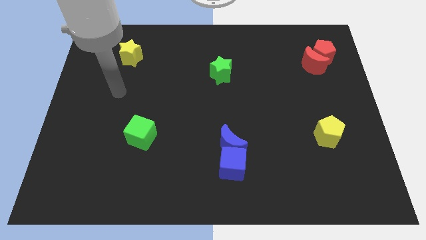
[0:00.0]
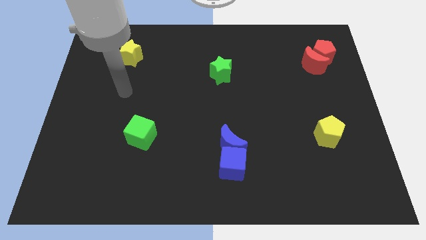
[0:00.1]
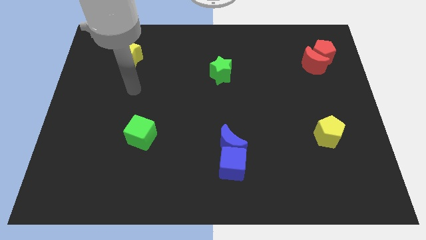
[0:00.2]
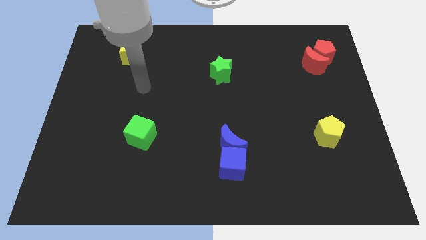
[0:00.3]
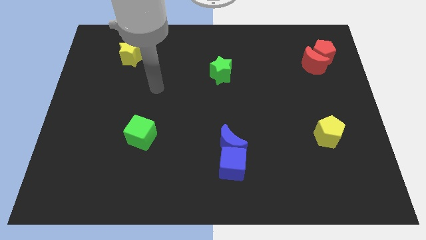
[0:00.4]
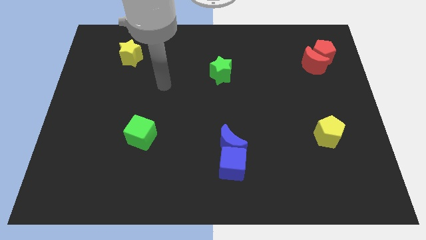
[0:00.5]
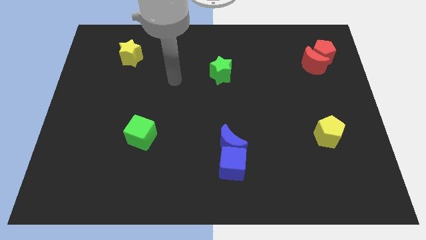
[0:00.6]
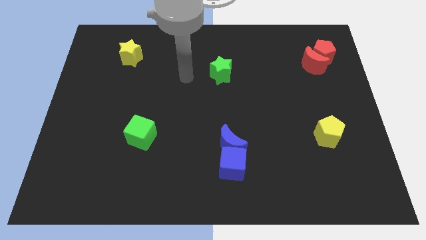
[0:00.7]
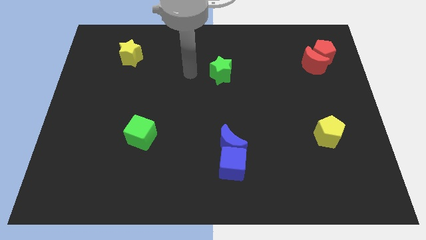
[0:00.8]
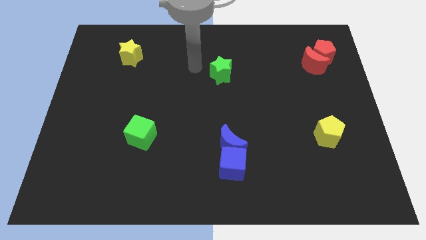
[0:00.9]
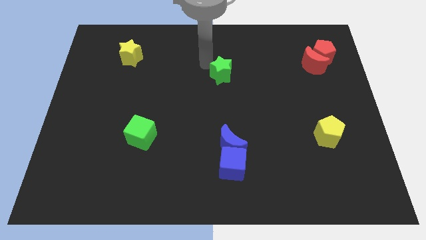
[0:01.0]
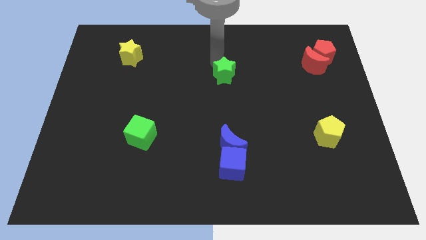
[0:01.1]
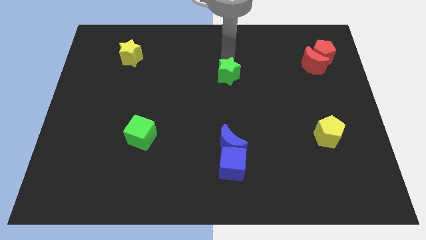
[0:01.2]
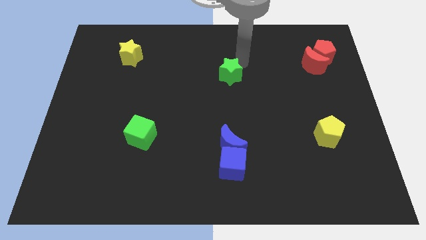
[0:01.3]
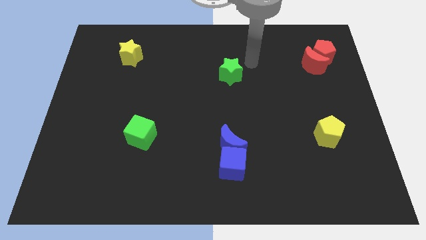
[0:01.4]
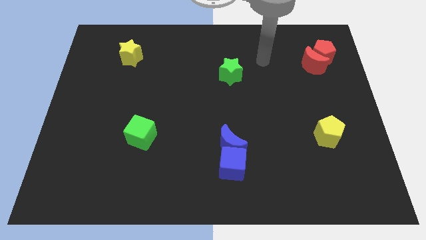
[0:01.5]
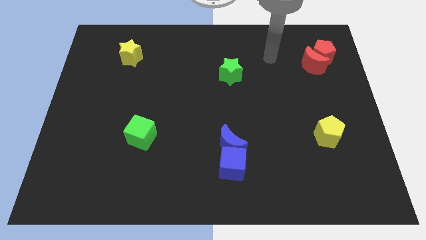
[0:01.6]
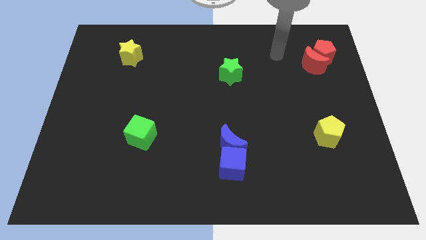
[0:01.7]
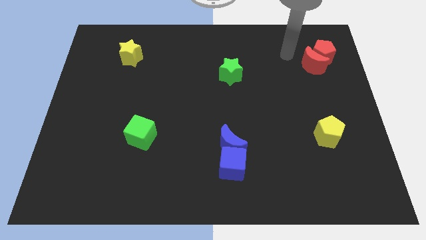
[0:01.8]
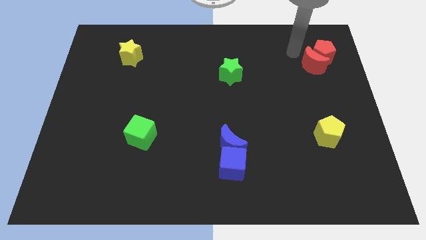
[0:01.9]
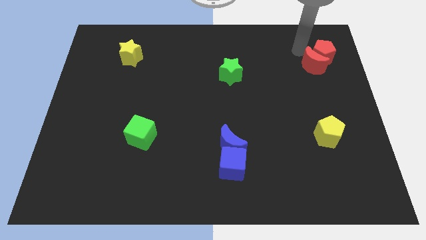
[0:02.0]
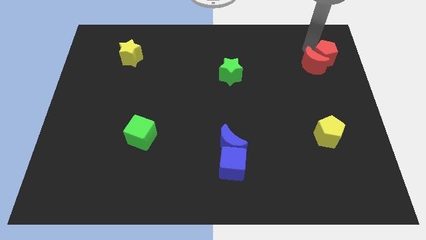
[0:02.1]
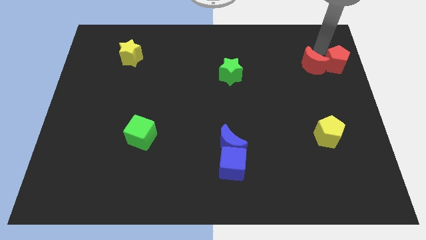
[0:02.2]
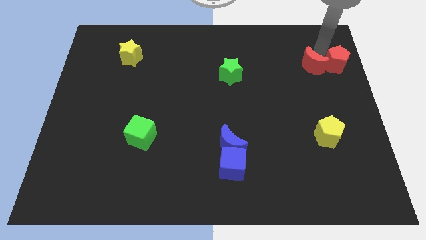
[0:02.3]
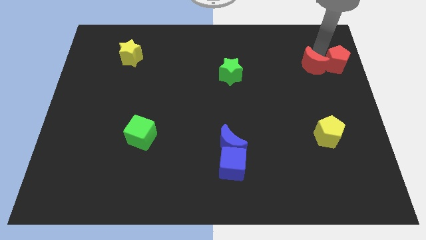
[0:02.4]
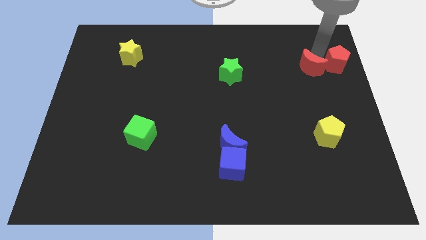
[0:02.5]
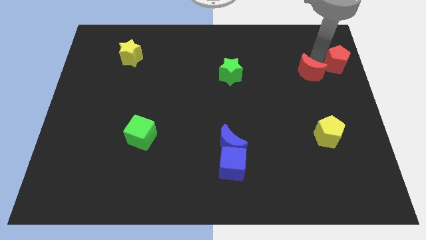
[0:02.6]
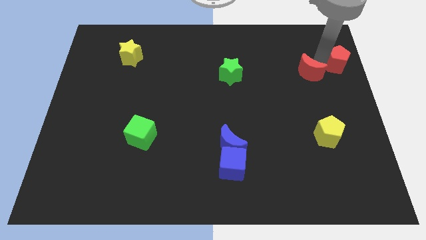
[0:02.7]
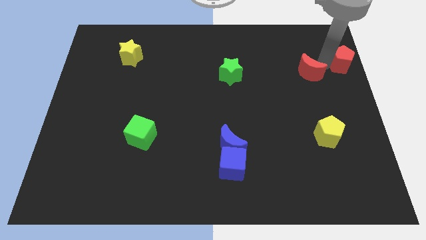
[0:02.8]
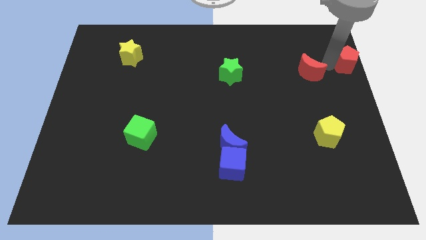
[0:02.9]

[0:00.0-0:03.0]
separate the red moon from the red pentagon

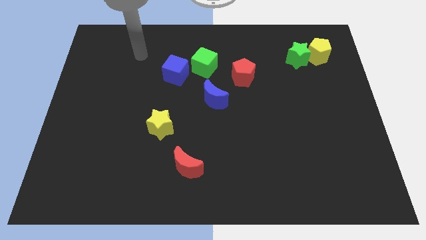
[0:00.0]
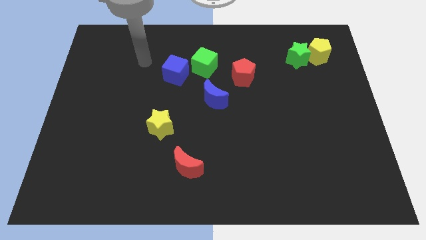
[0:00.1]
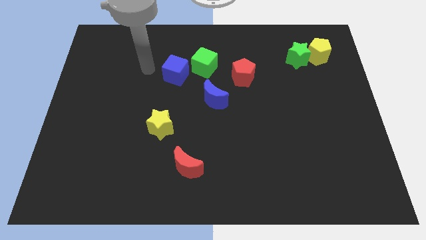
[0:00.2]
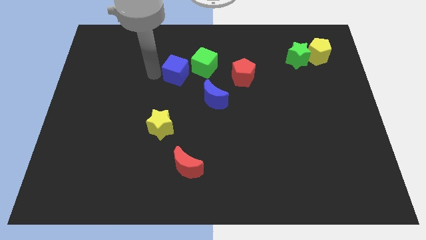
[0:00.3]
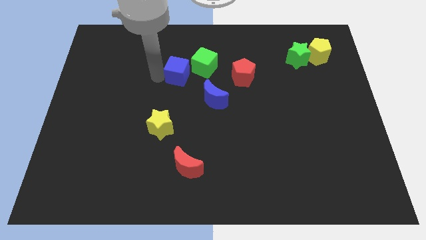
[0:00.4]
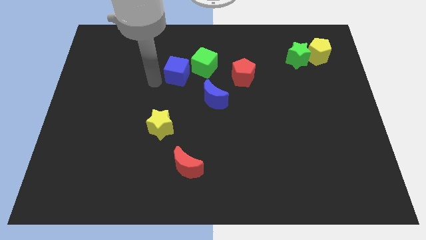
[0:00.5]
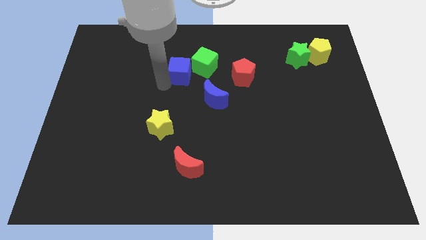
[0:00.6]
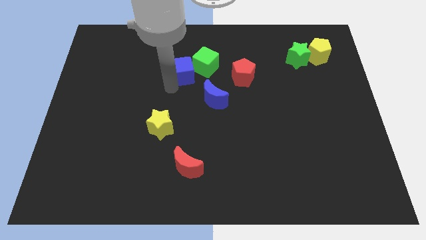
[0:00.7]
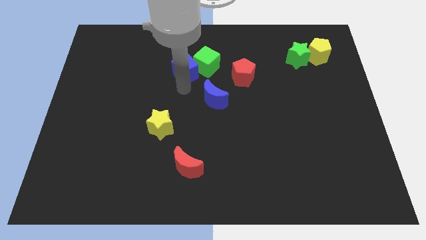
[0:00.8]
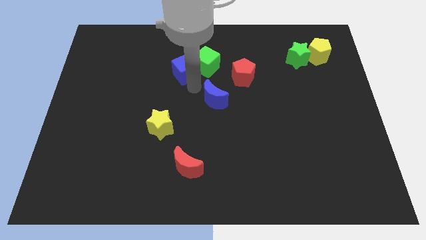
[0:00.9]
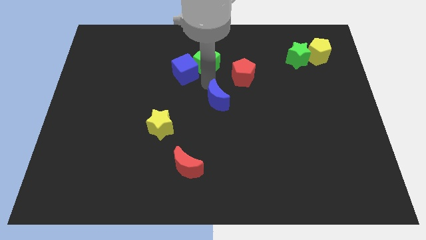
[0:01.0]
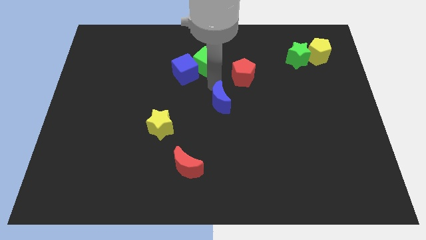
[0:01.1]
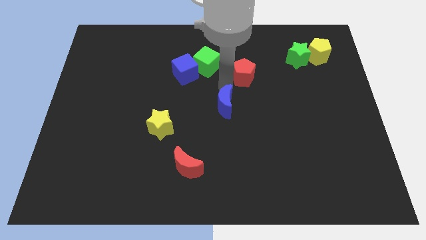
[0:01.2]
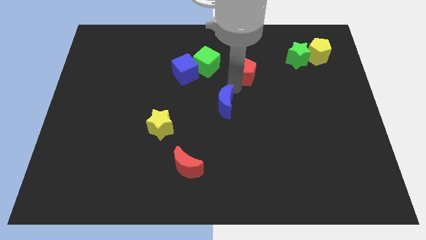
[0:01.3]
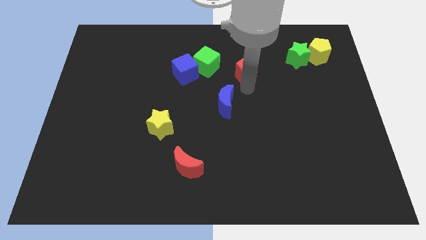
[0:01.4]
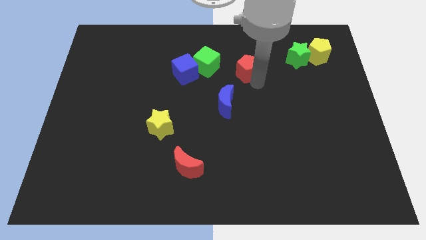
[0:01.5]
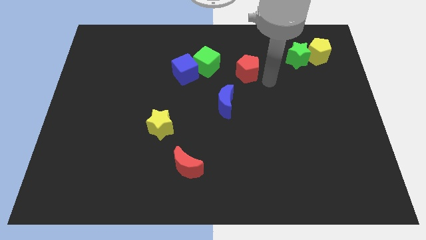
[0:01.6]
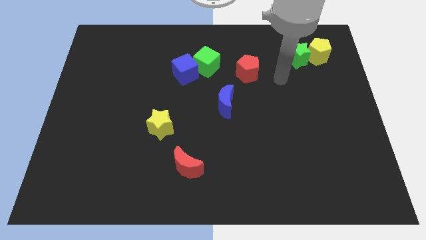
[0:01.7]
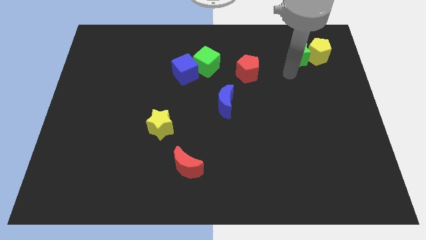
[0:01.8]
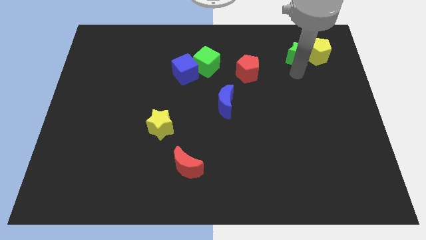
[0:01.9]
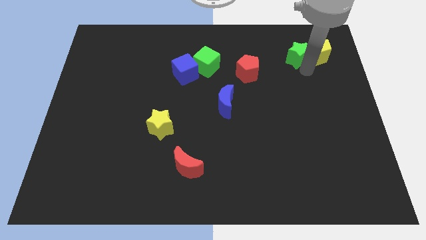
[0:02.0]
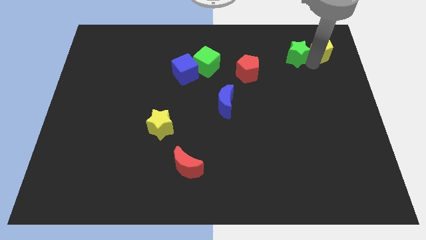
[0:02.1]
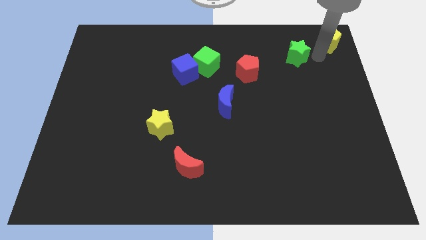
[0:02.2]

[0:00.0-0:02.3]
pull the green star apart from the yellow pentagon

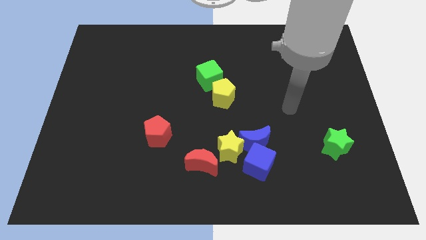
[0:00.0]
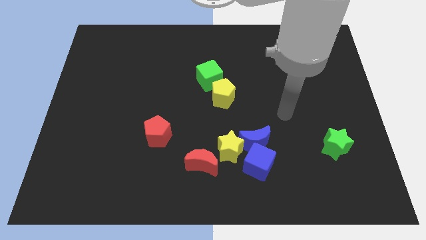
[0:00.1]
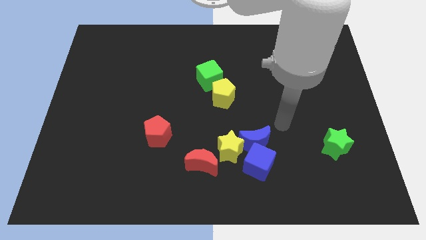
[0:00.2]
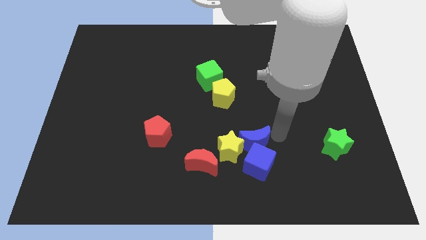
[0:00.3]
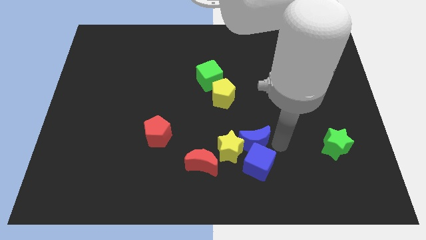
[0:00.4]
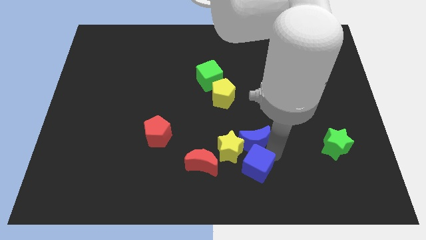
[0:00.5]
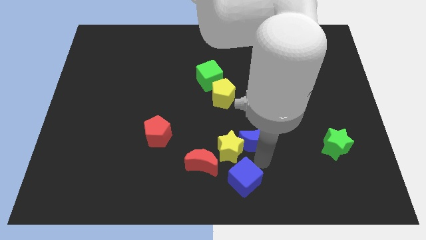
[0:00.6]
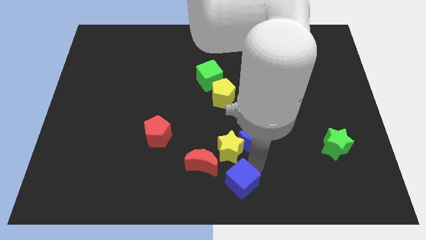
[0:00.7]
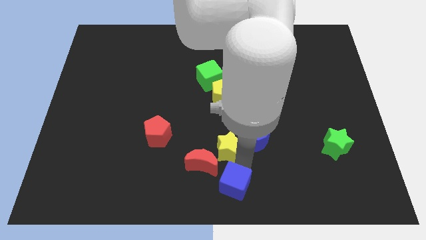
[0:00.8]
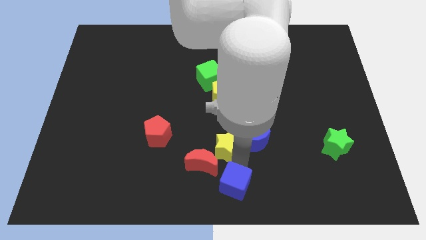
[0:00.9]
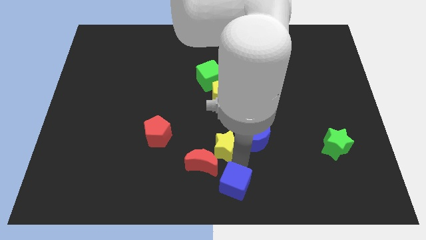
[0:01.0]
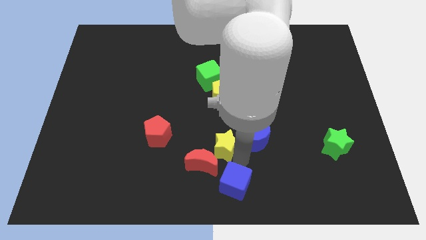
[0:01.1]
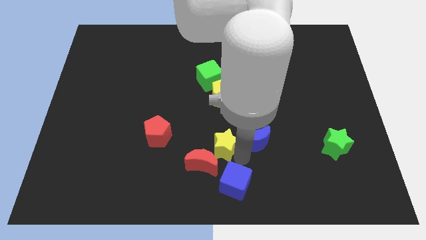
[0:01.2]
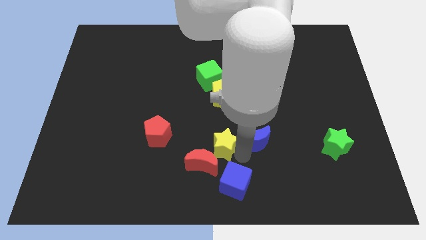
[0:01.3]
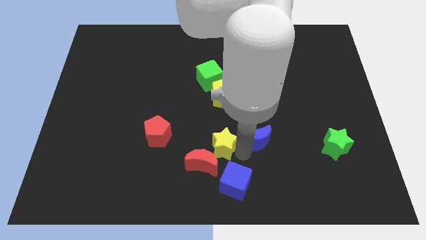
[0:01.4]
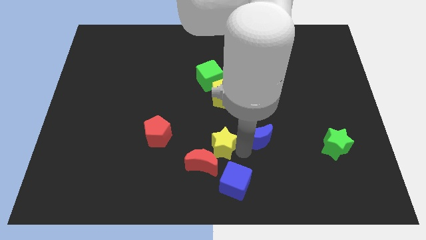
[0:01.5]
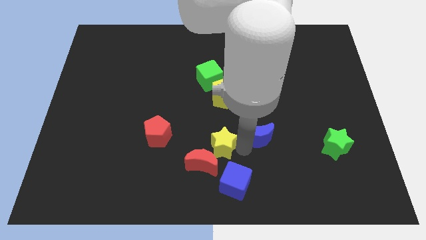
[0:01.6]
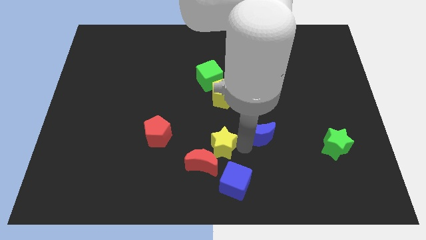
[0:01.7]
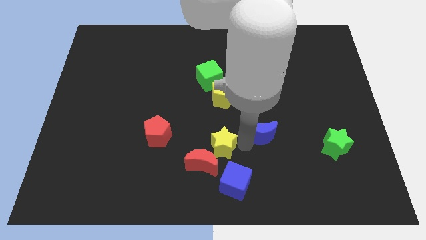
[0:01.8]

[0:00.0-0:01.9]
pull the blue moon apart from the blue cube and yellow star

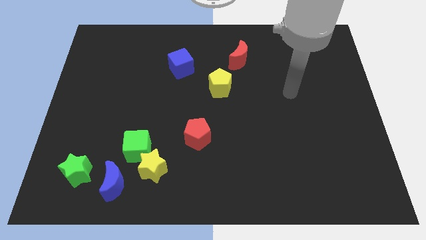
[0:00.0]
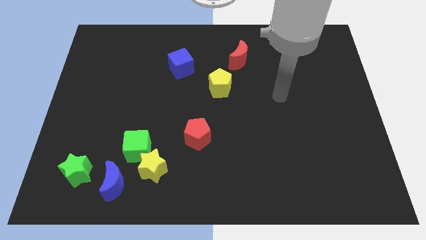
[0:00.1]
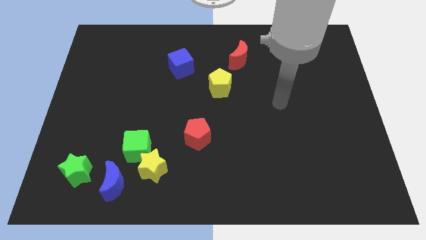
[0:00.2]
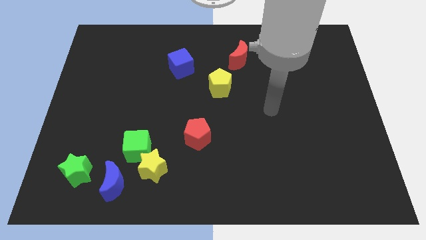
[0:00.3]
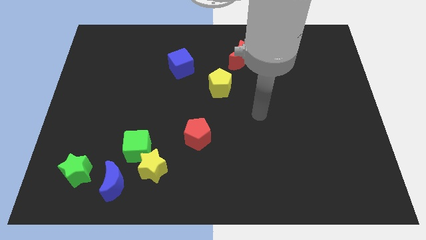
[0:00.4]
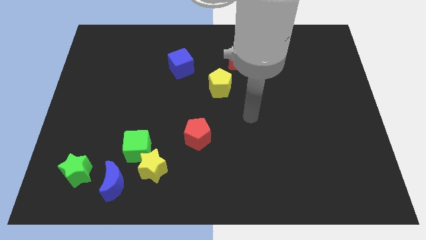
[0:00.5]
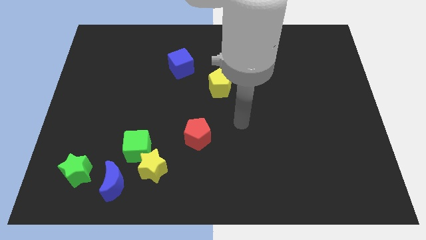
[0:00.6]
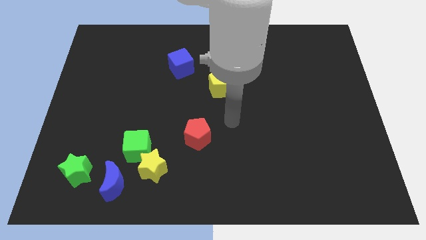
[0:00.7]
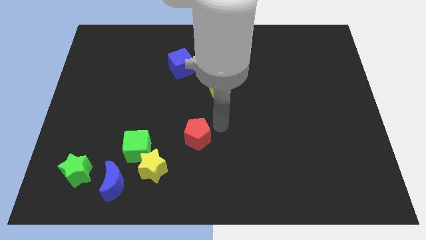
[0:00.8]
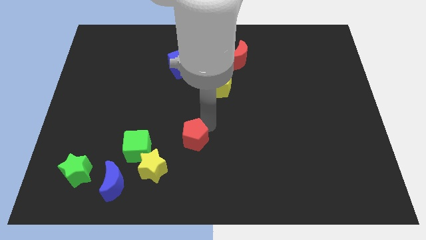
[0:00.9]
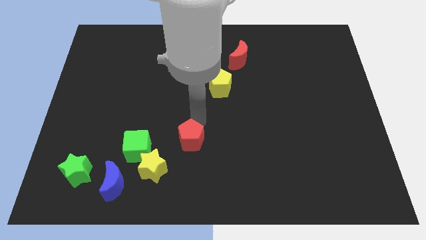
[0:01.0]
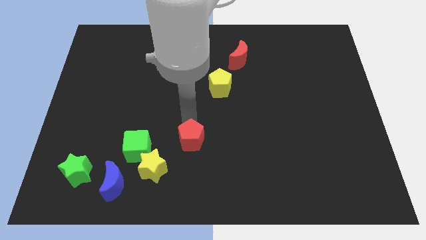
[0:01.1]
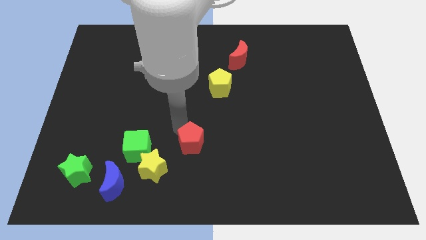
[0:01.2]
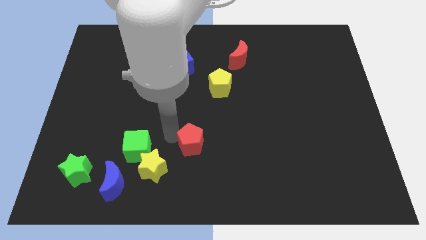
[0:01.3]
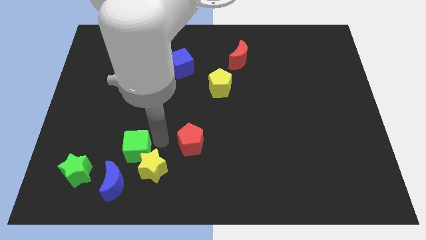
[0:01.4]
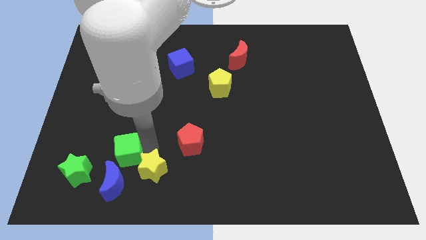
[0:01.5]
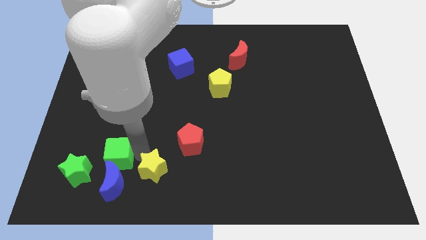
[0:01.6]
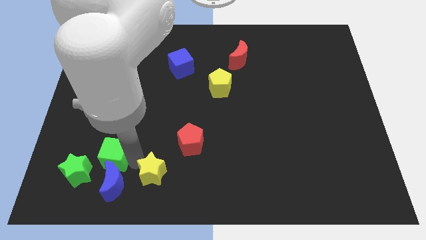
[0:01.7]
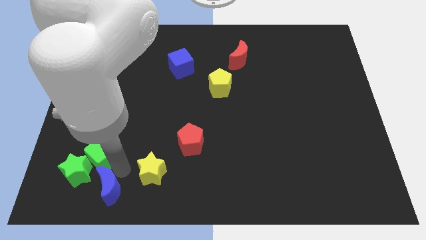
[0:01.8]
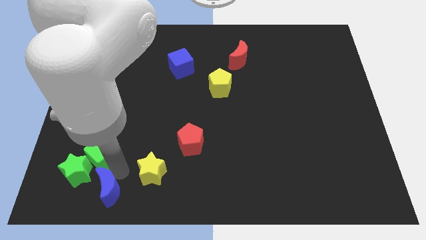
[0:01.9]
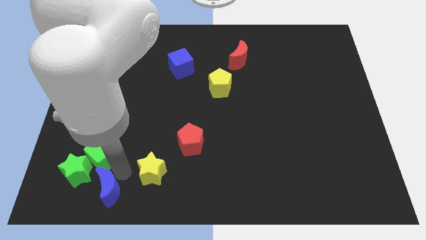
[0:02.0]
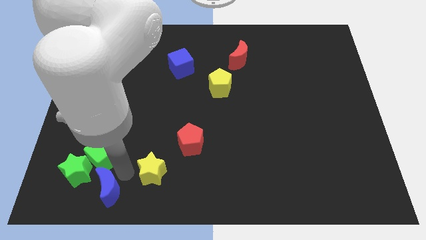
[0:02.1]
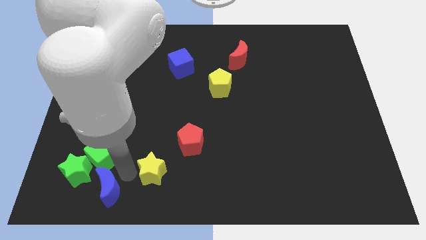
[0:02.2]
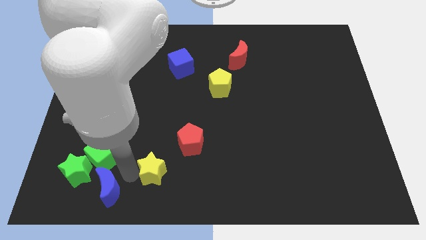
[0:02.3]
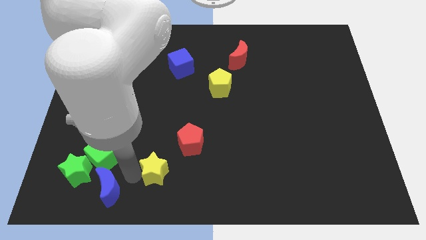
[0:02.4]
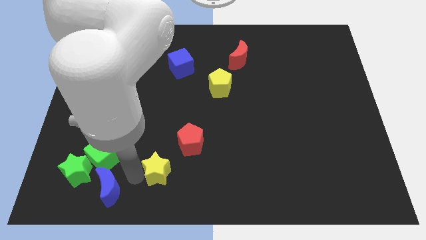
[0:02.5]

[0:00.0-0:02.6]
separate the yellow star from the green cube and blue moon
